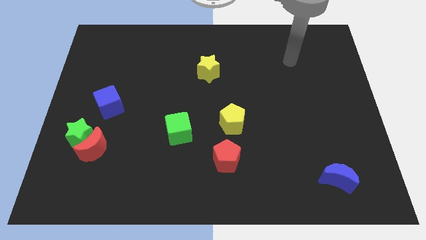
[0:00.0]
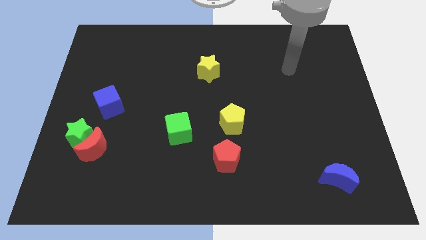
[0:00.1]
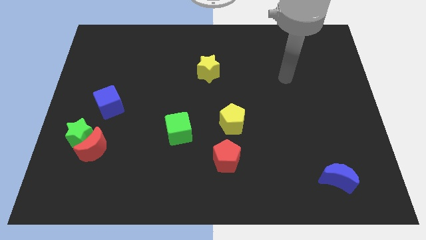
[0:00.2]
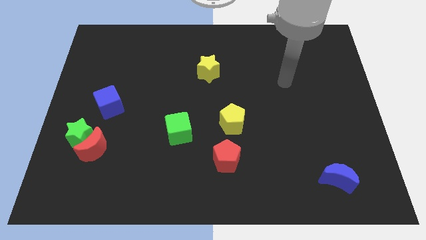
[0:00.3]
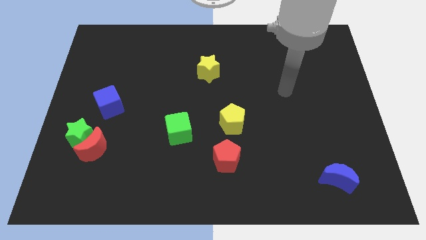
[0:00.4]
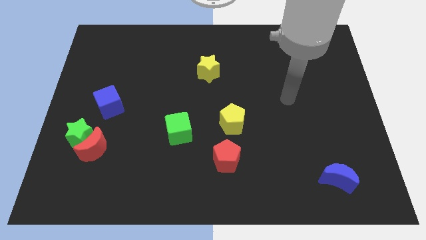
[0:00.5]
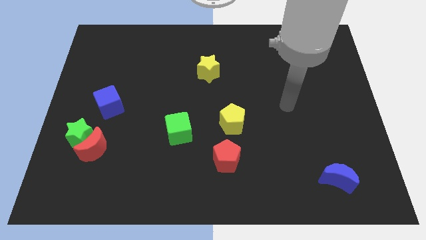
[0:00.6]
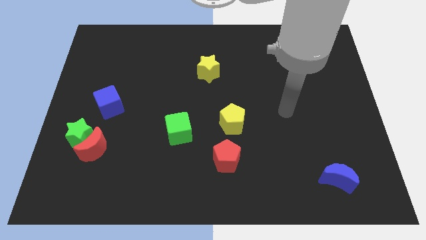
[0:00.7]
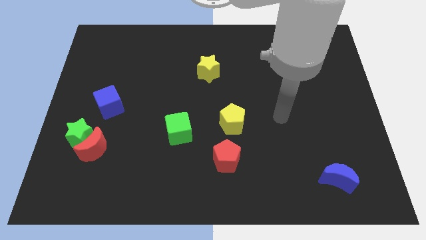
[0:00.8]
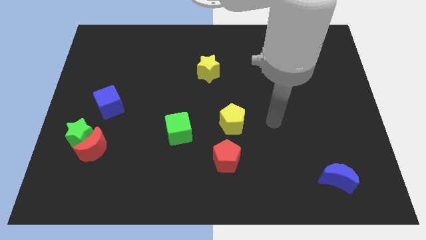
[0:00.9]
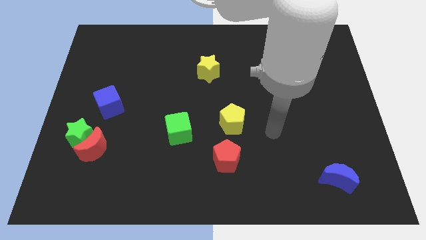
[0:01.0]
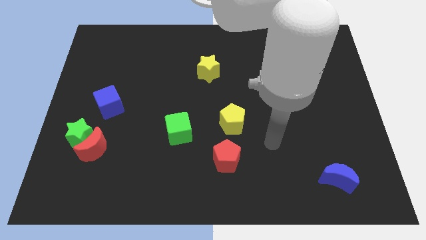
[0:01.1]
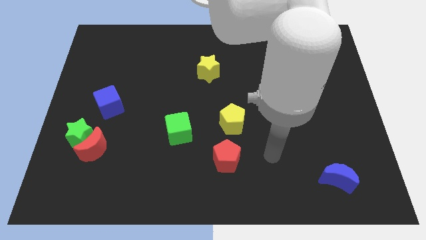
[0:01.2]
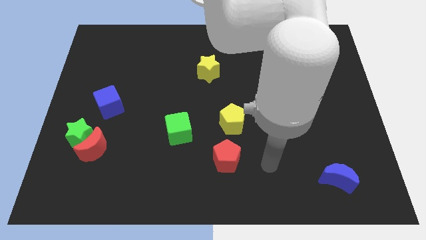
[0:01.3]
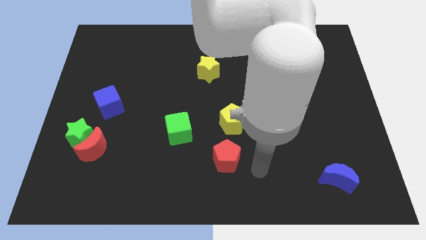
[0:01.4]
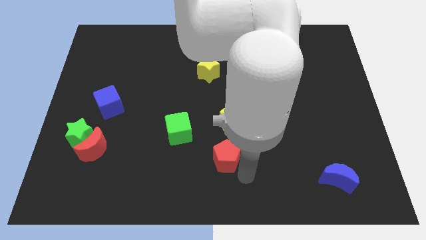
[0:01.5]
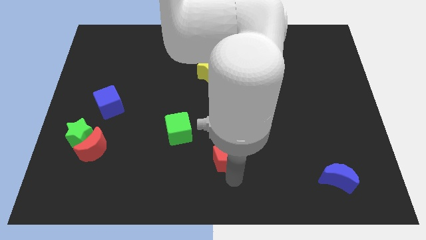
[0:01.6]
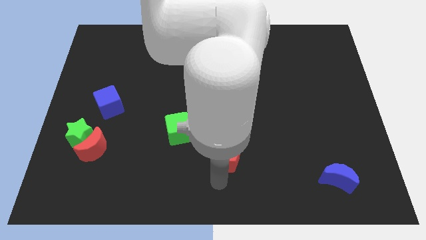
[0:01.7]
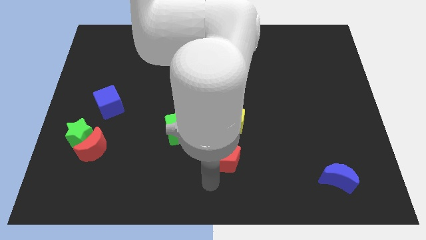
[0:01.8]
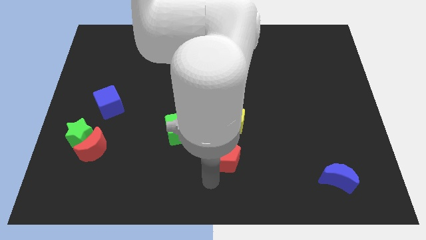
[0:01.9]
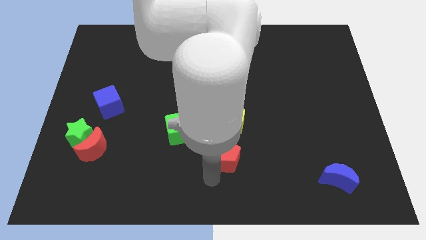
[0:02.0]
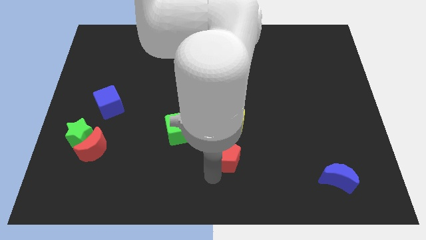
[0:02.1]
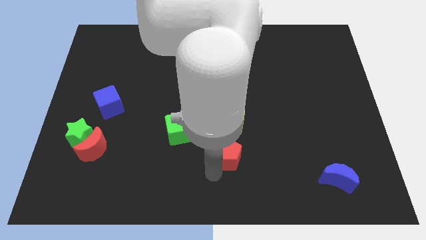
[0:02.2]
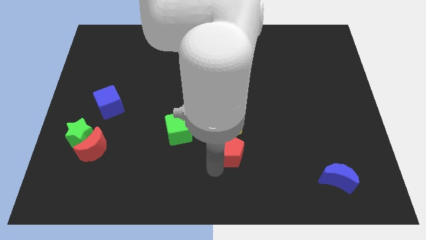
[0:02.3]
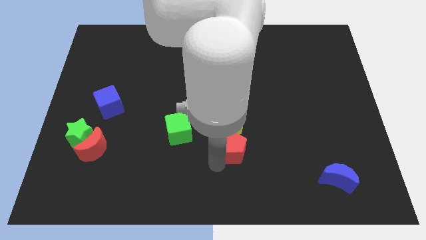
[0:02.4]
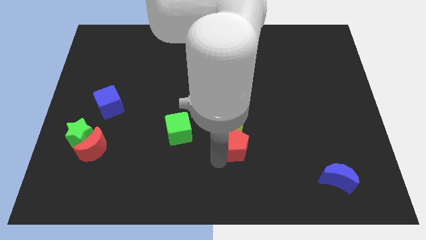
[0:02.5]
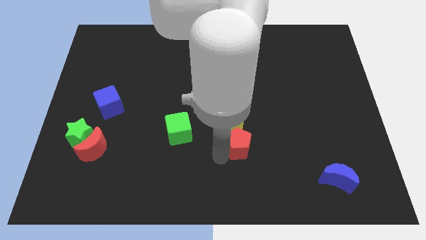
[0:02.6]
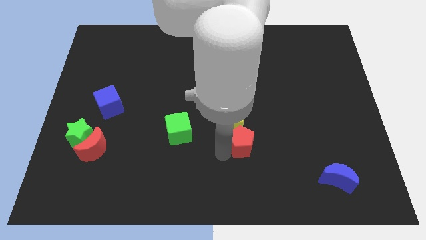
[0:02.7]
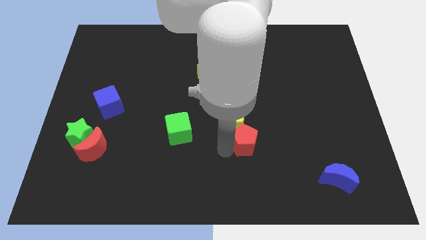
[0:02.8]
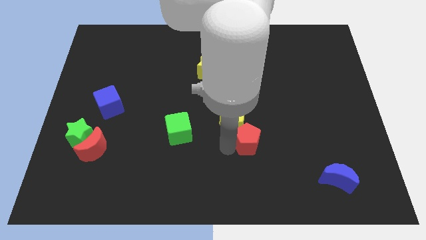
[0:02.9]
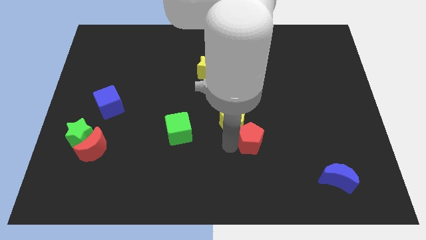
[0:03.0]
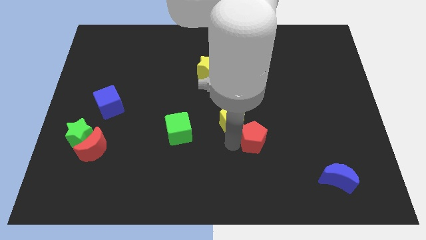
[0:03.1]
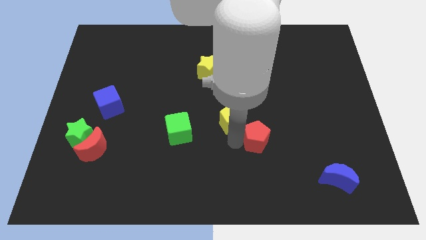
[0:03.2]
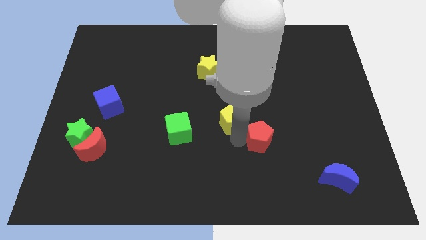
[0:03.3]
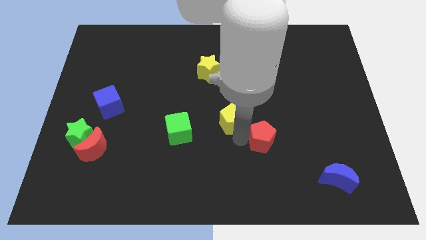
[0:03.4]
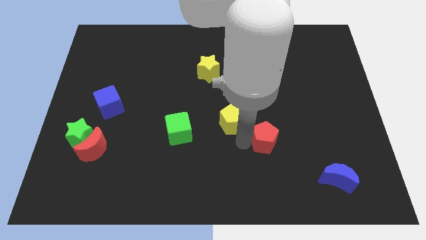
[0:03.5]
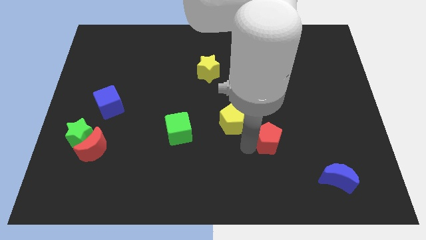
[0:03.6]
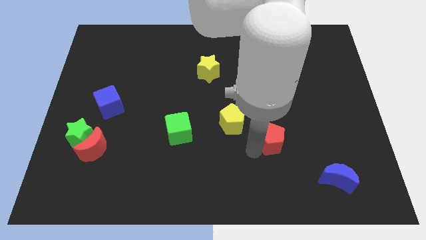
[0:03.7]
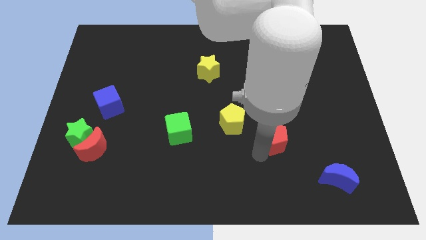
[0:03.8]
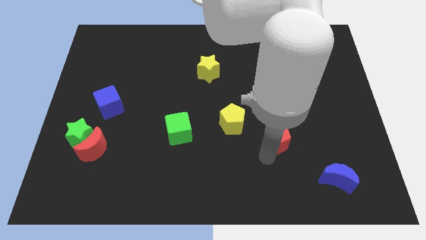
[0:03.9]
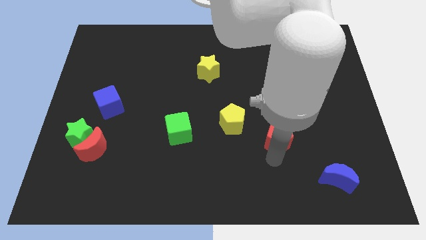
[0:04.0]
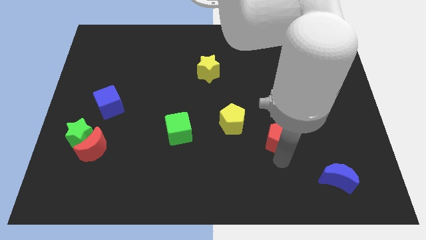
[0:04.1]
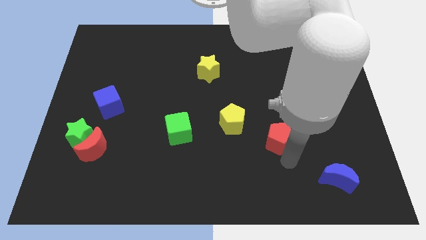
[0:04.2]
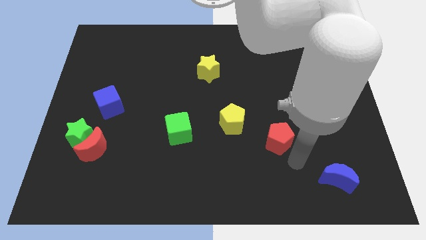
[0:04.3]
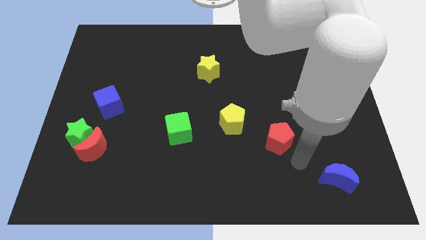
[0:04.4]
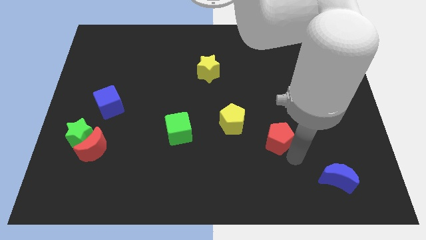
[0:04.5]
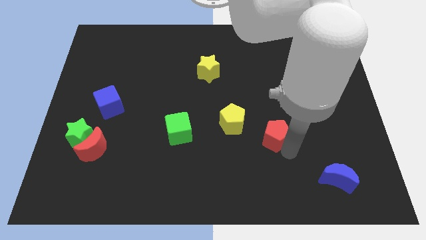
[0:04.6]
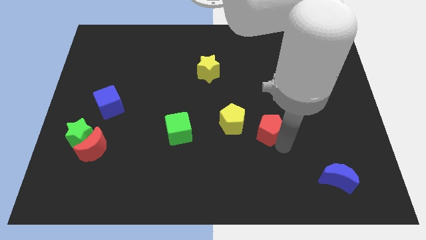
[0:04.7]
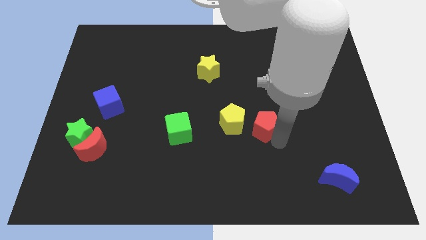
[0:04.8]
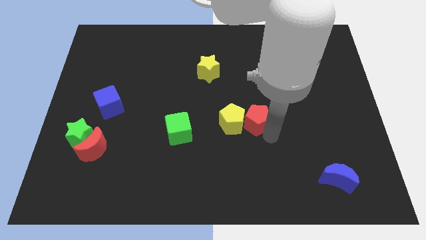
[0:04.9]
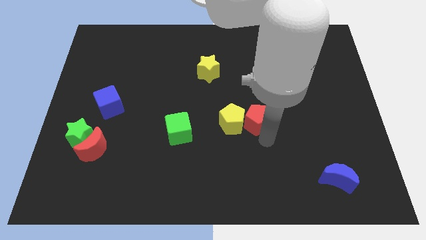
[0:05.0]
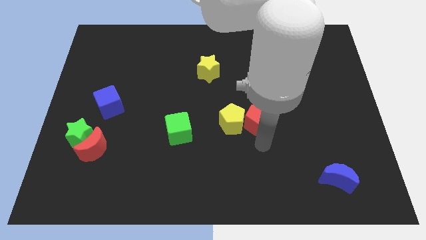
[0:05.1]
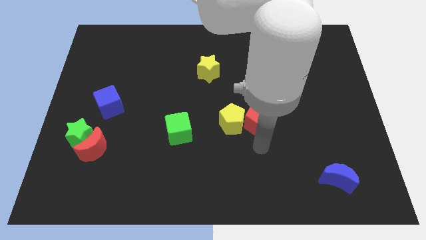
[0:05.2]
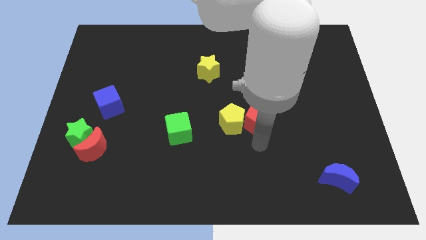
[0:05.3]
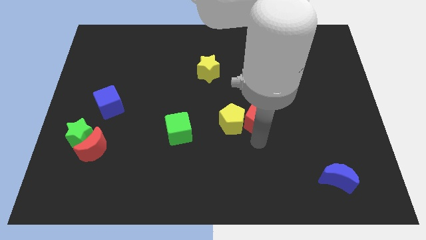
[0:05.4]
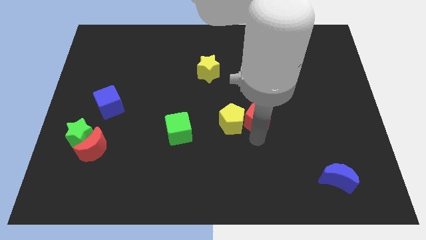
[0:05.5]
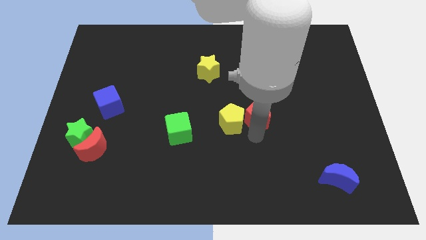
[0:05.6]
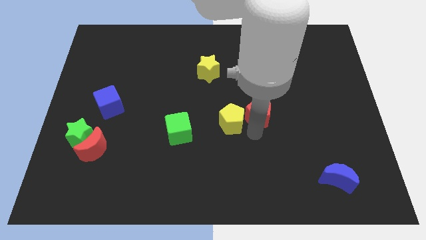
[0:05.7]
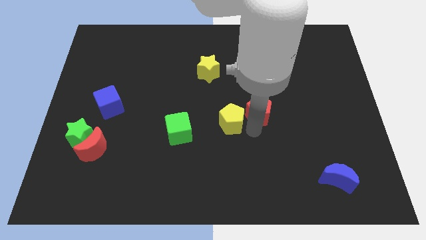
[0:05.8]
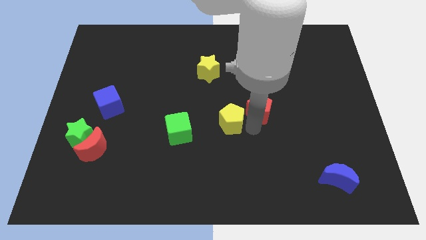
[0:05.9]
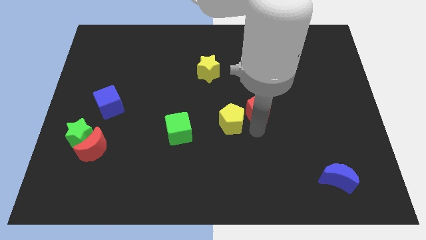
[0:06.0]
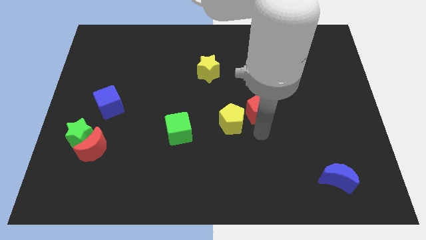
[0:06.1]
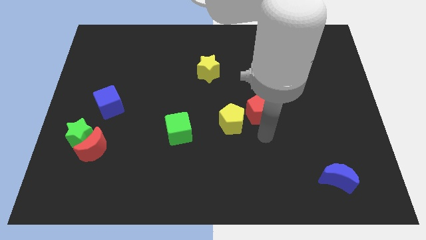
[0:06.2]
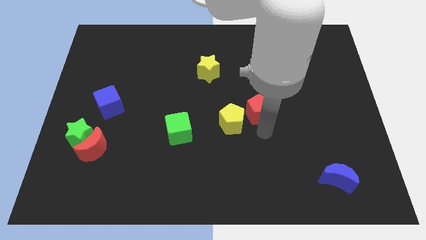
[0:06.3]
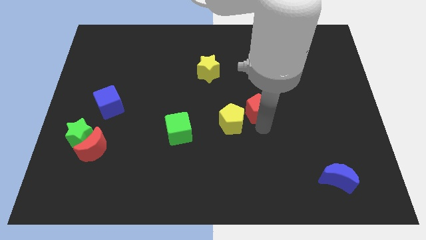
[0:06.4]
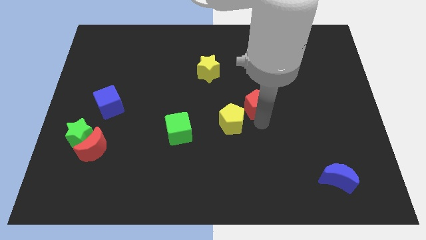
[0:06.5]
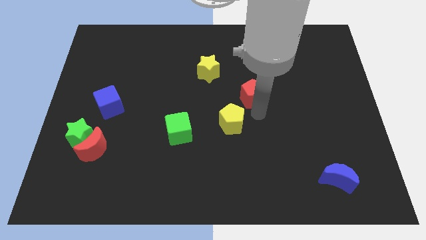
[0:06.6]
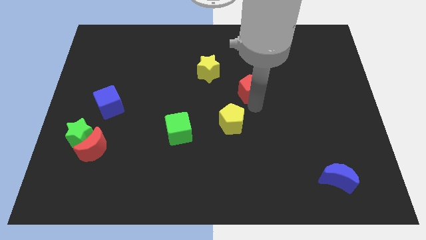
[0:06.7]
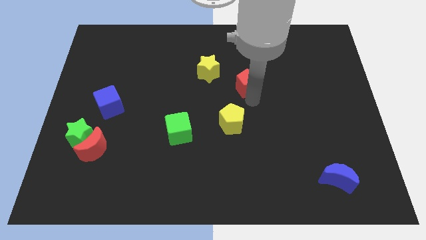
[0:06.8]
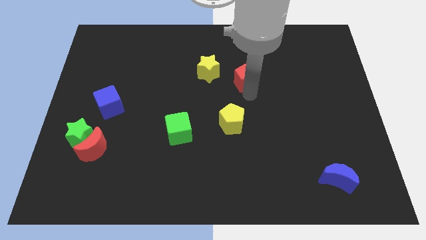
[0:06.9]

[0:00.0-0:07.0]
push the red pentagon to the right side of the yellow star
